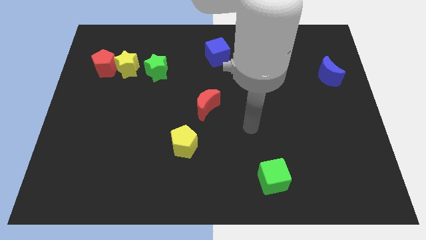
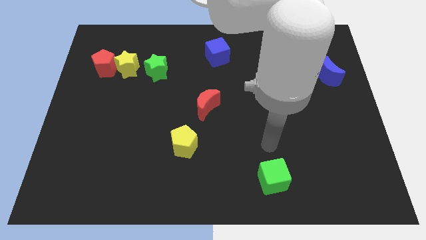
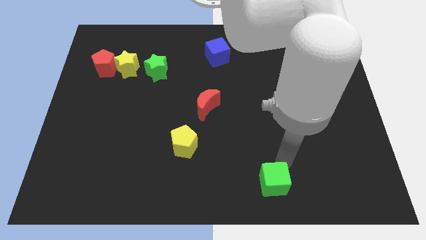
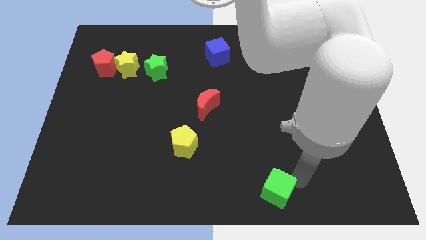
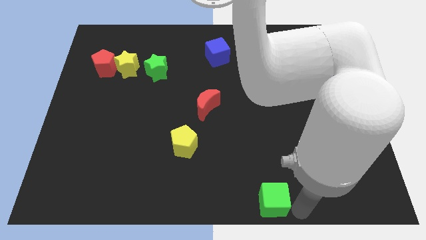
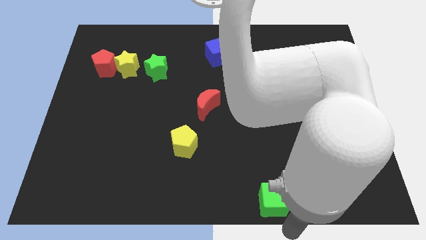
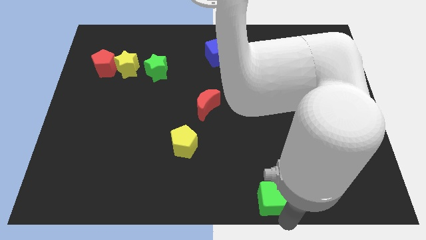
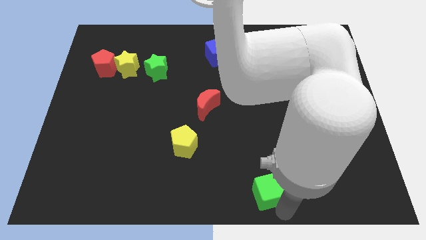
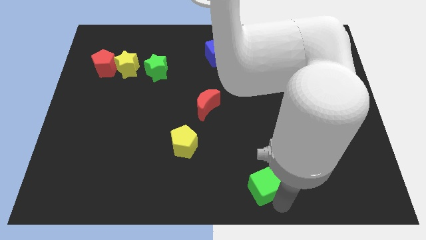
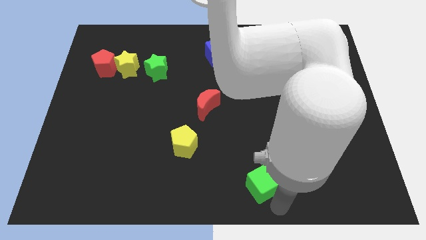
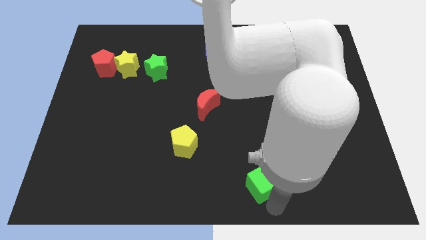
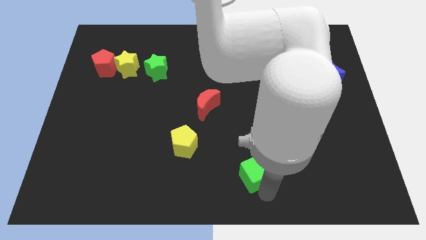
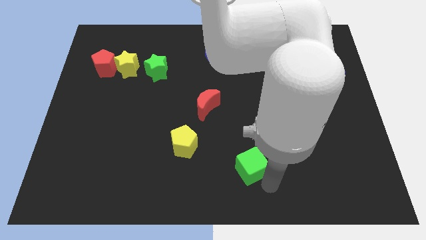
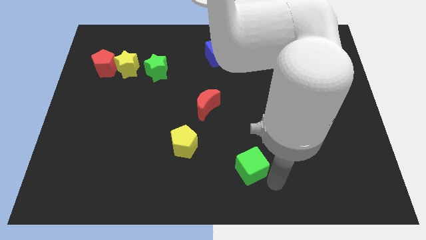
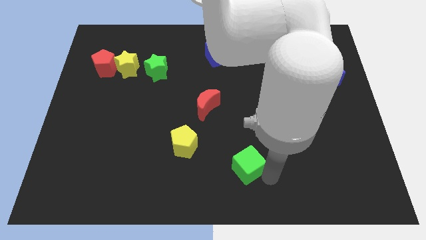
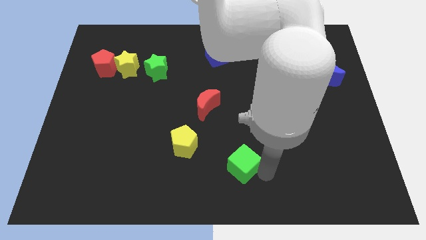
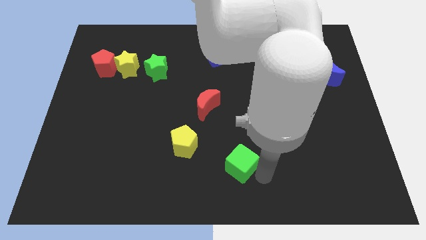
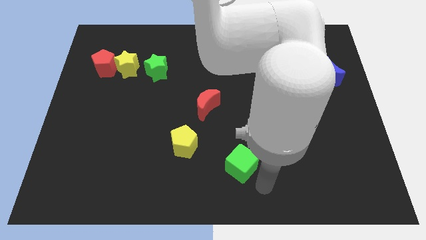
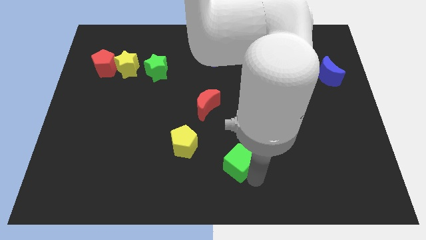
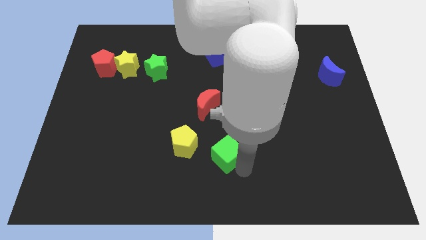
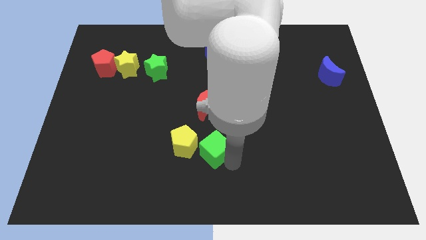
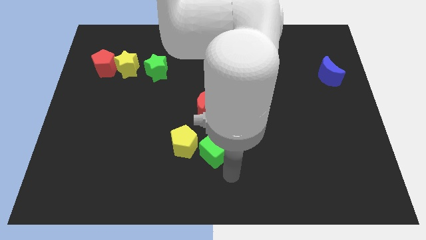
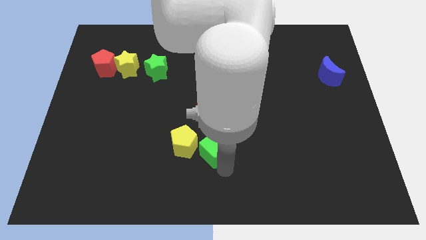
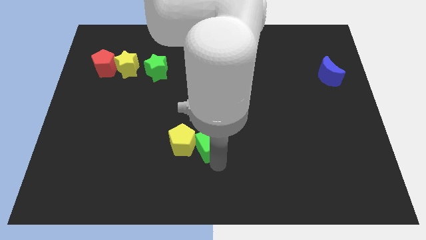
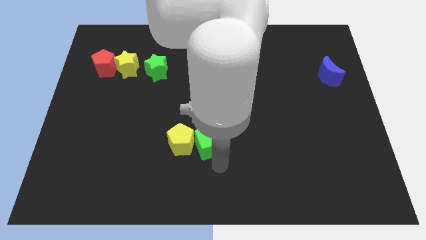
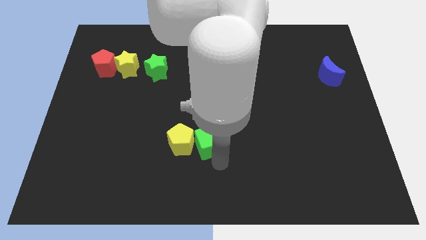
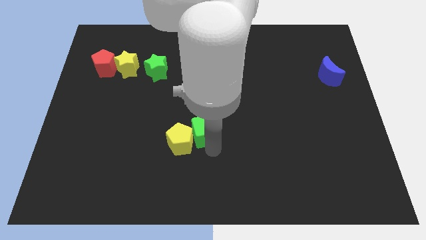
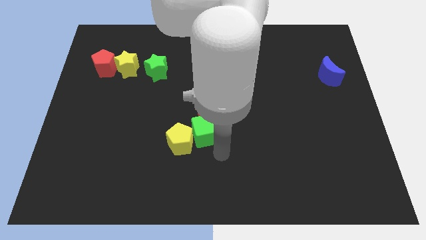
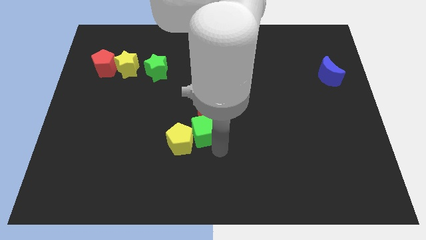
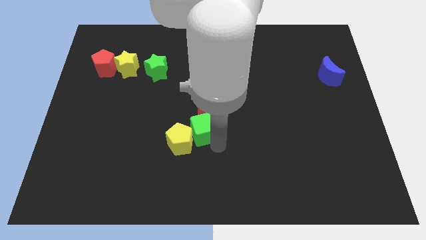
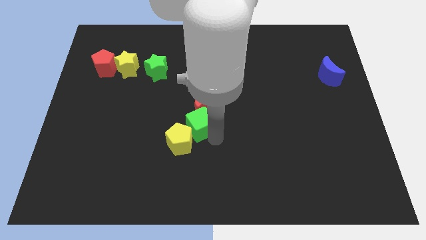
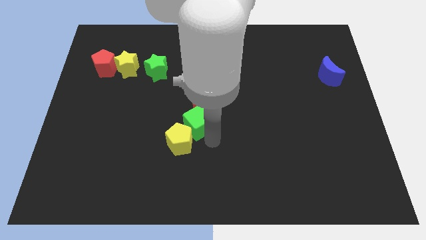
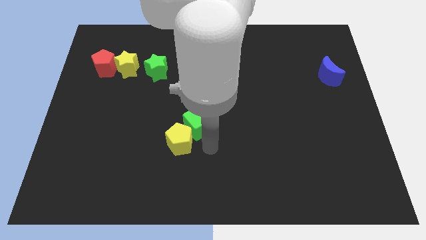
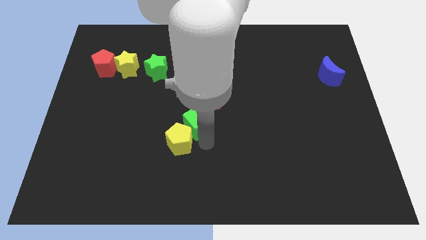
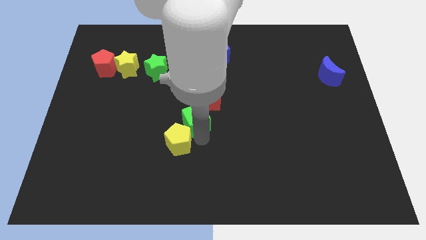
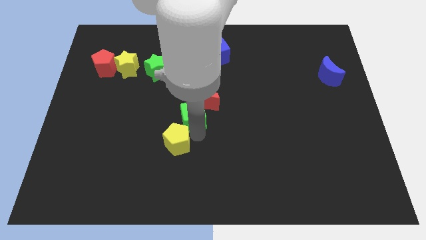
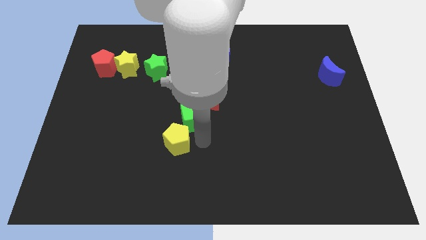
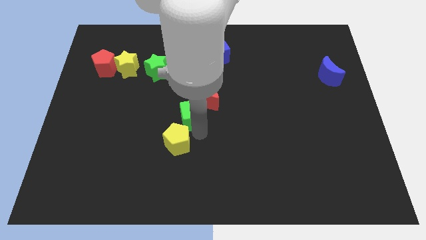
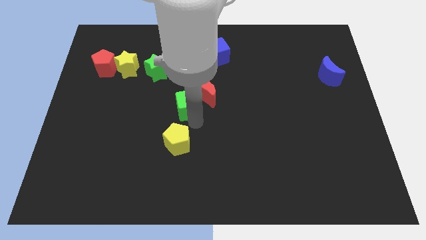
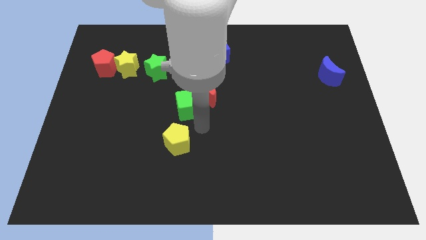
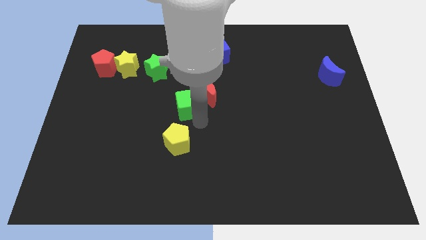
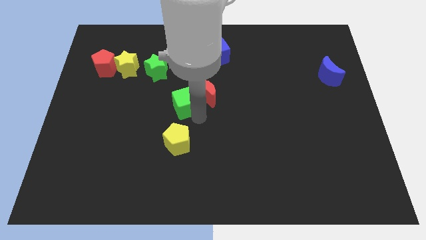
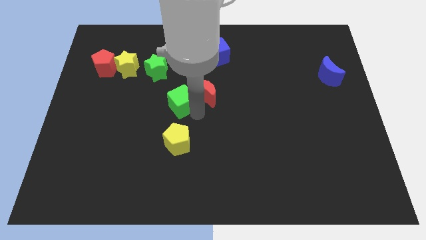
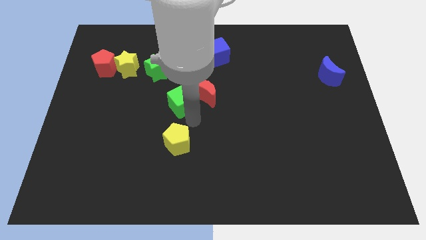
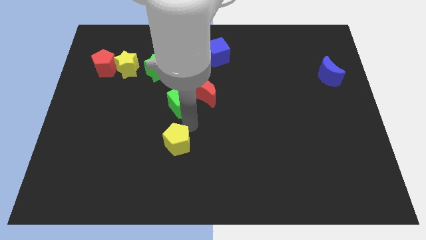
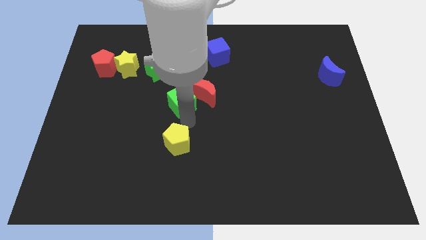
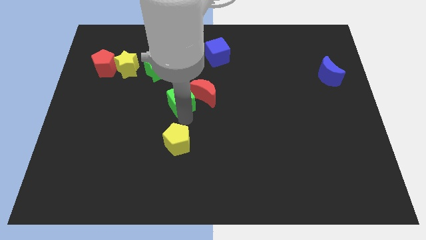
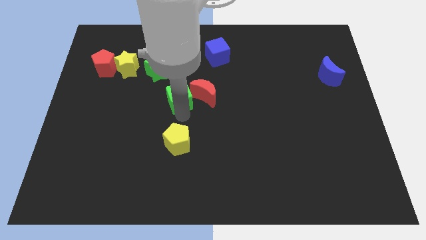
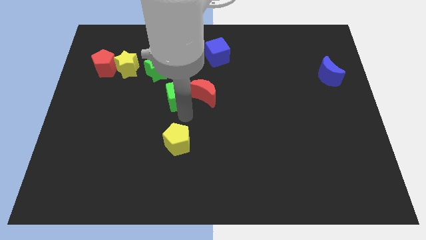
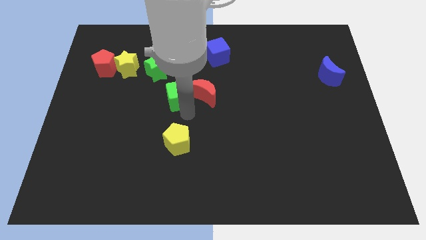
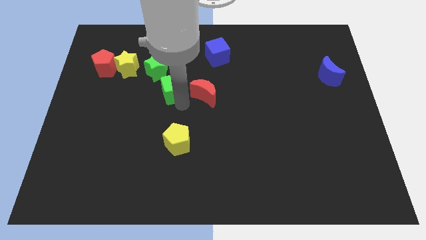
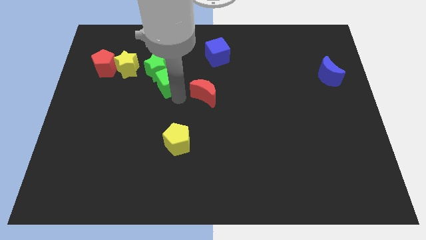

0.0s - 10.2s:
slide the green cube next to the green star

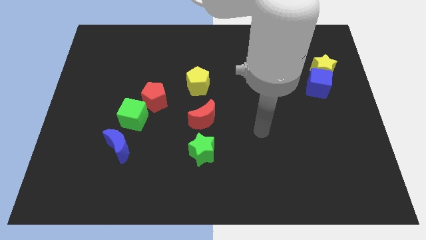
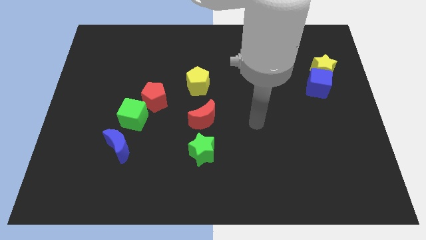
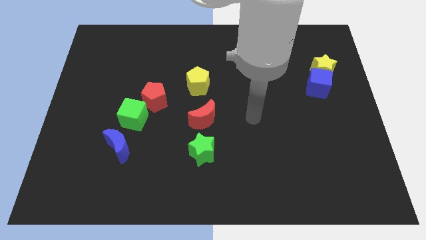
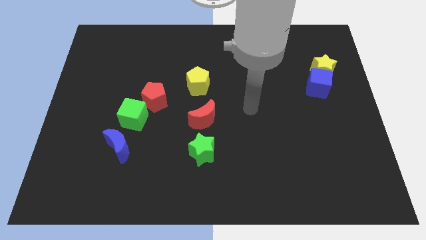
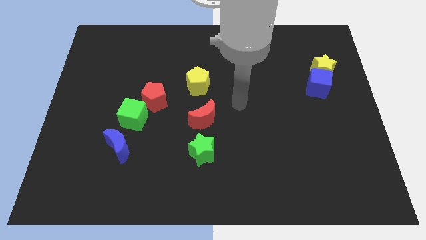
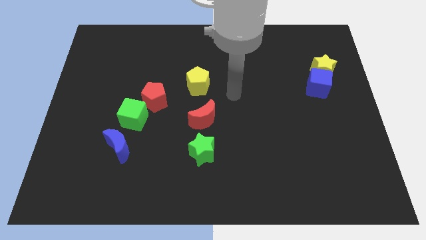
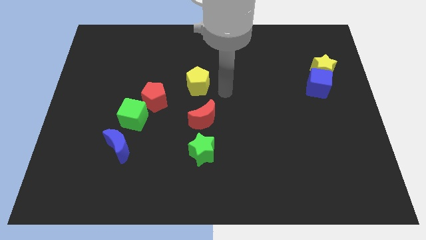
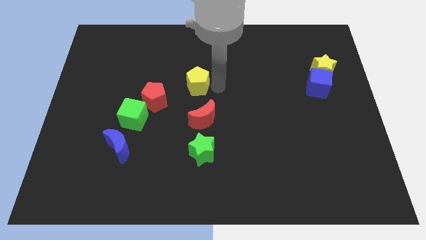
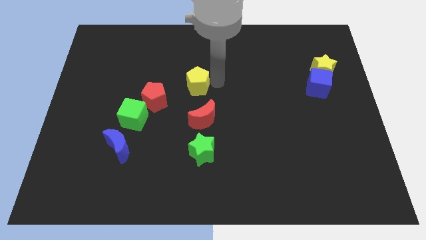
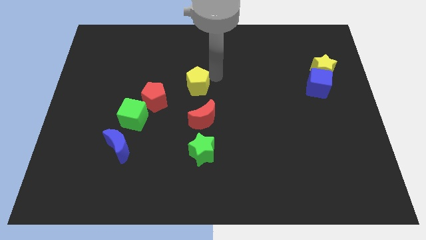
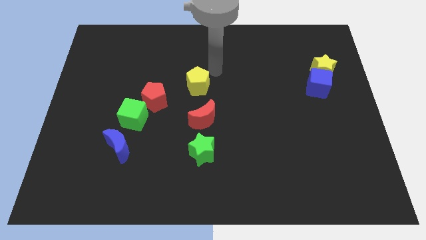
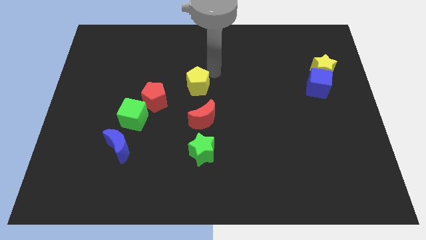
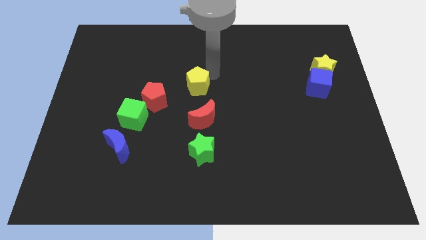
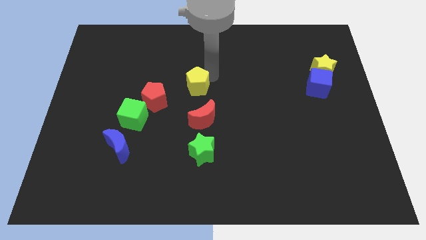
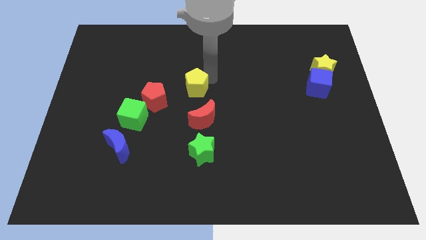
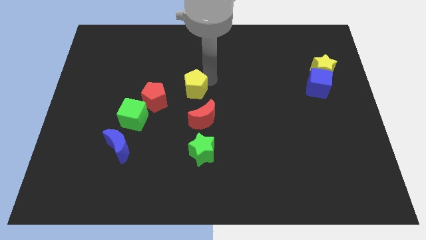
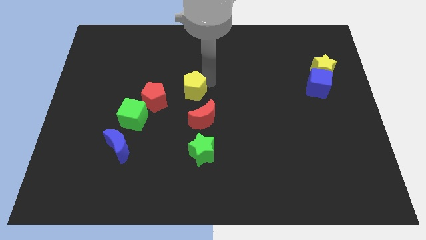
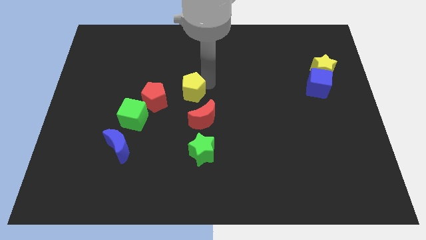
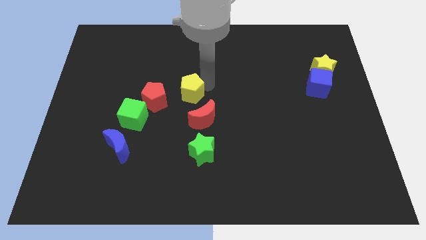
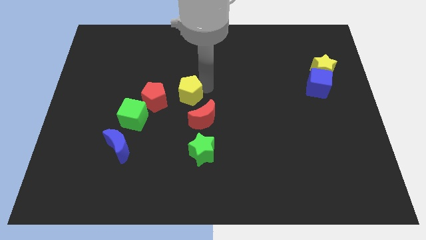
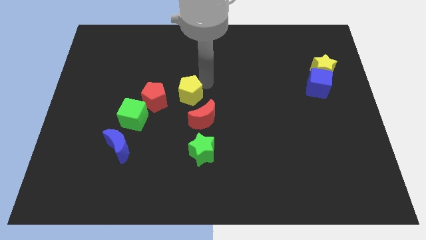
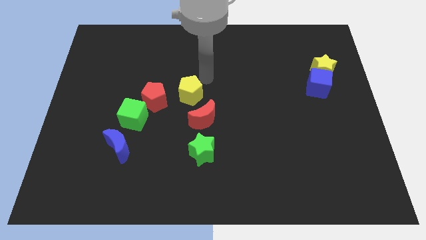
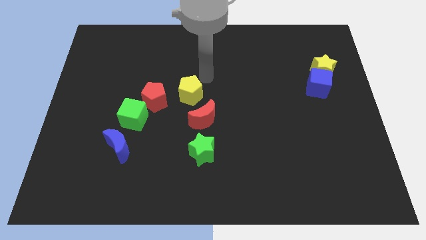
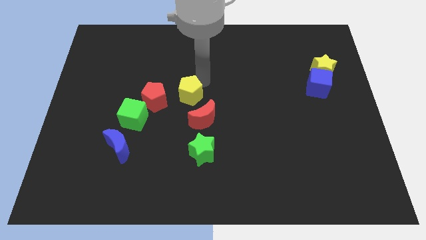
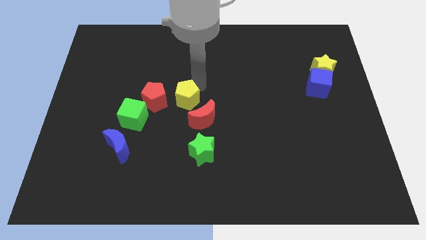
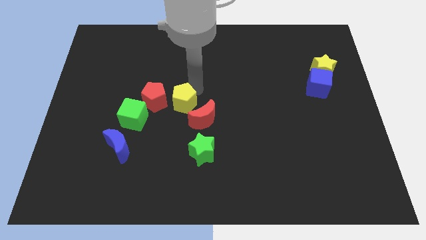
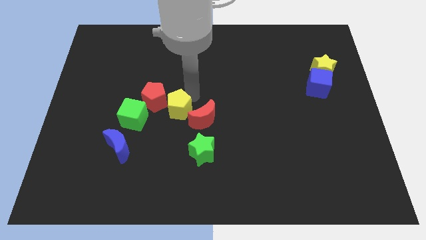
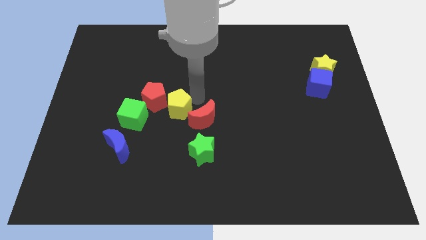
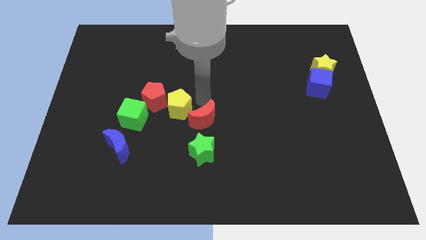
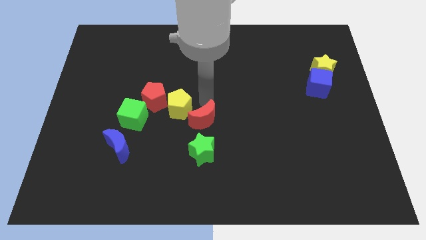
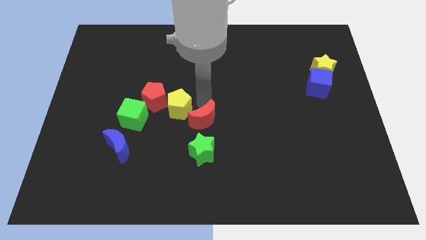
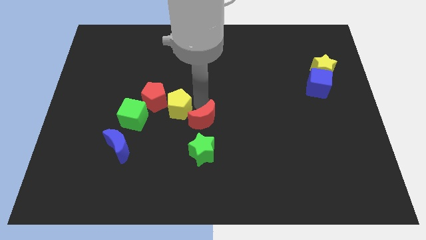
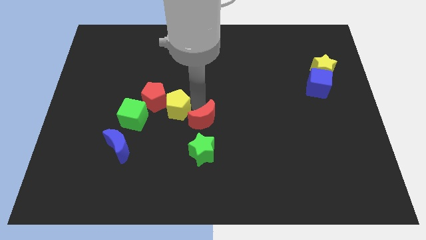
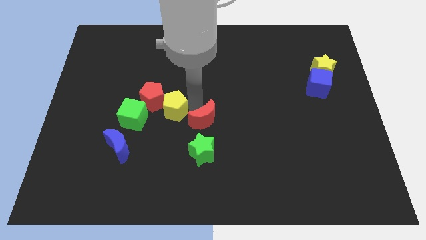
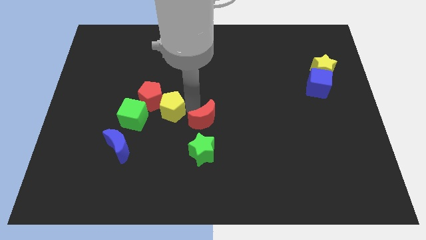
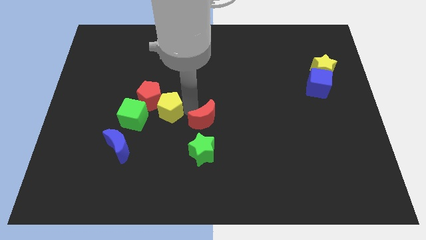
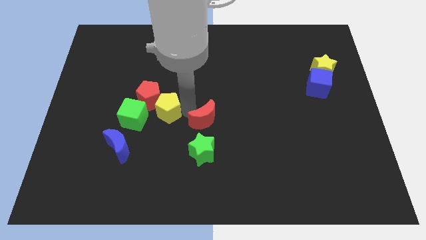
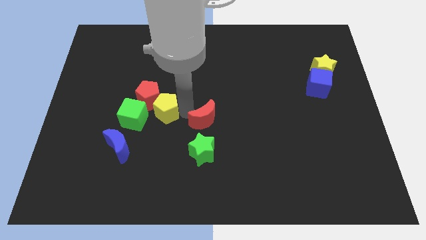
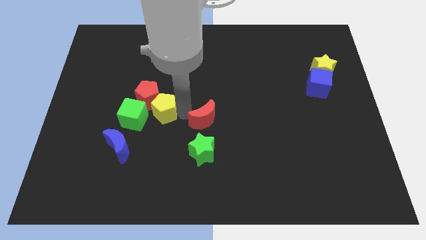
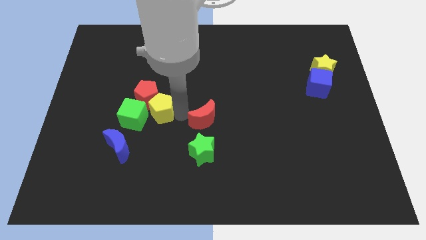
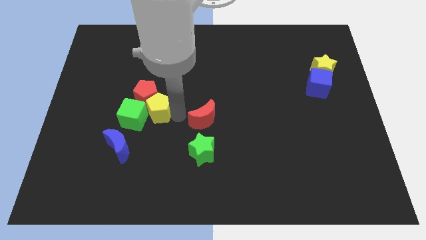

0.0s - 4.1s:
move the yellow pentagon to the green cube
